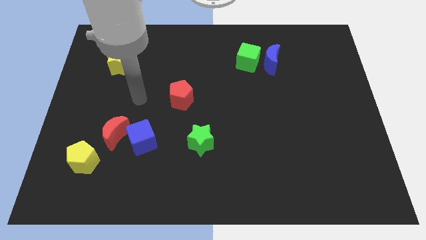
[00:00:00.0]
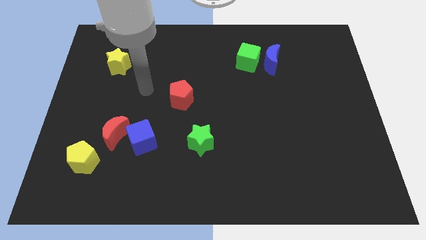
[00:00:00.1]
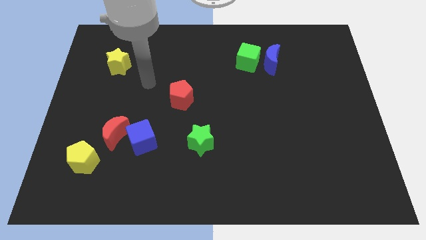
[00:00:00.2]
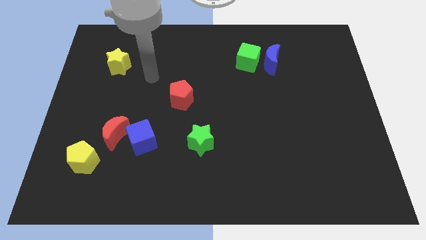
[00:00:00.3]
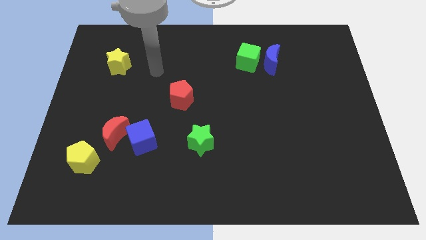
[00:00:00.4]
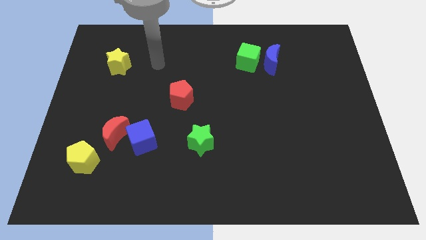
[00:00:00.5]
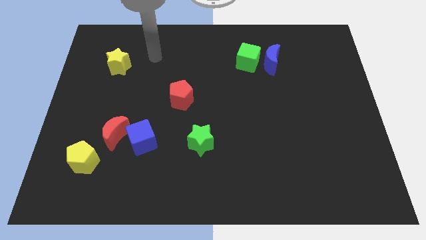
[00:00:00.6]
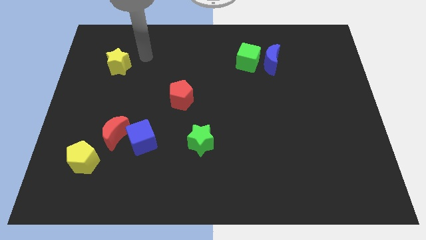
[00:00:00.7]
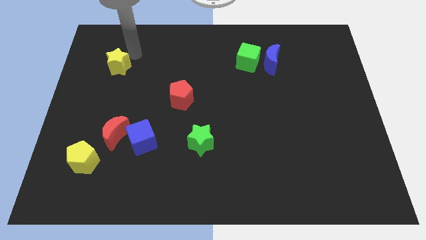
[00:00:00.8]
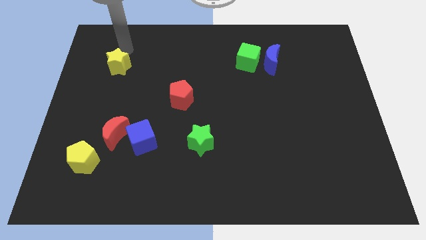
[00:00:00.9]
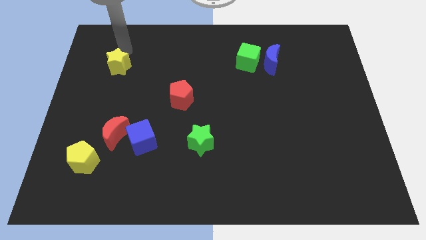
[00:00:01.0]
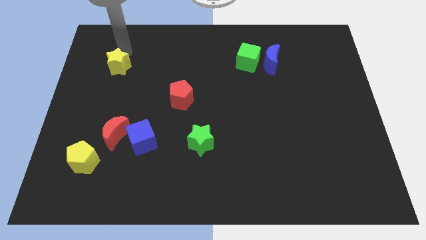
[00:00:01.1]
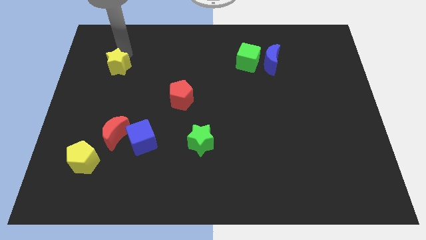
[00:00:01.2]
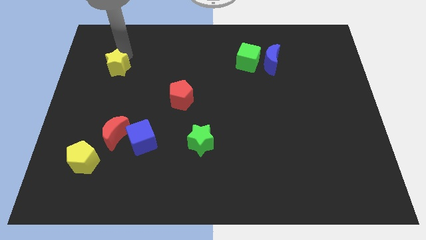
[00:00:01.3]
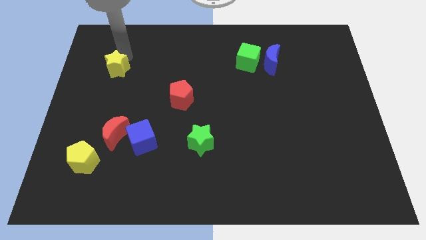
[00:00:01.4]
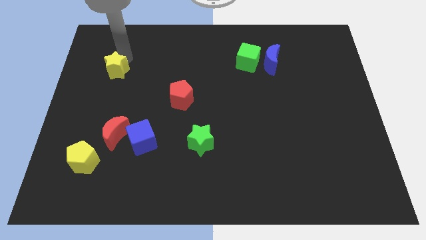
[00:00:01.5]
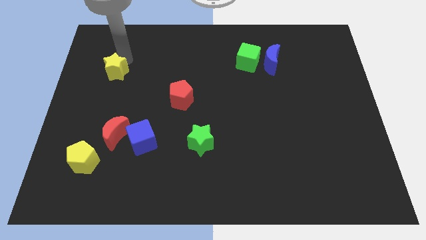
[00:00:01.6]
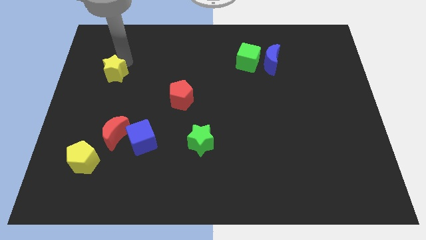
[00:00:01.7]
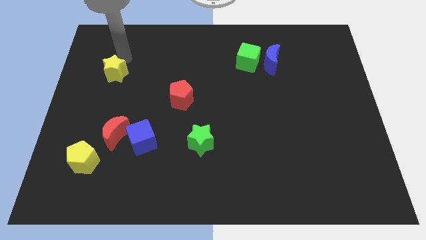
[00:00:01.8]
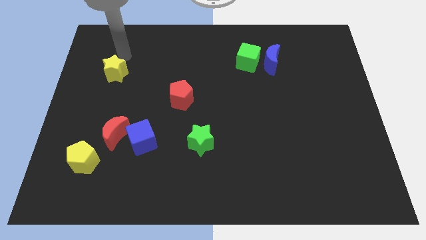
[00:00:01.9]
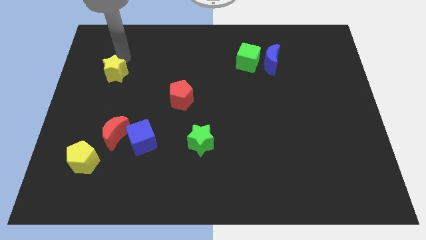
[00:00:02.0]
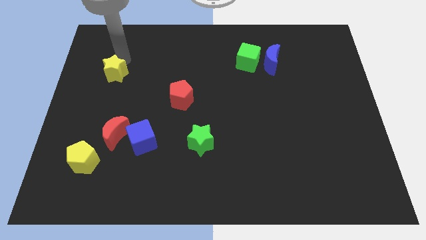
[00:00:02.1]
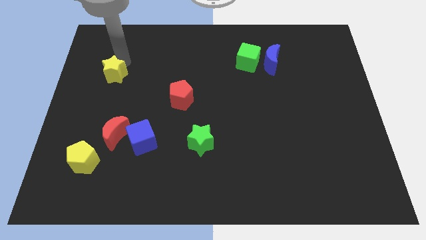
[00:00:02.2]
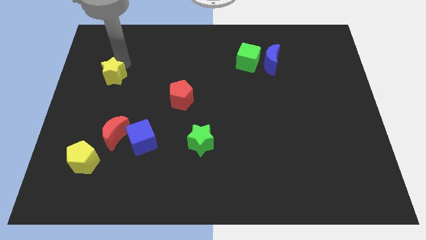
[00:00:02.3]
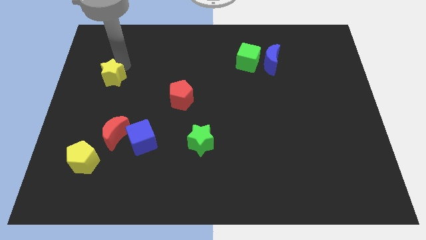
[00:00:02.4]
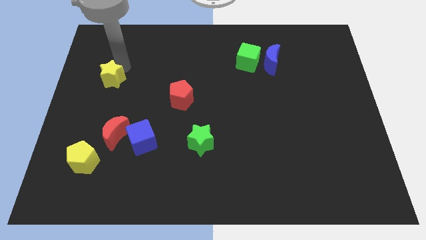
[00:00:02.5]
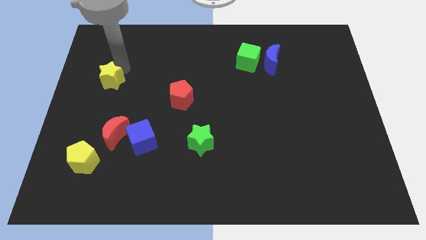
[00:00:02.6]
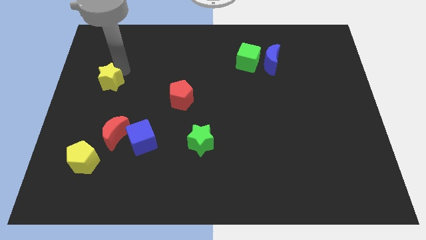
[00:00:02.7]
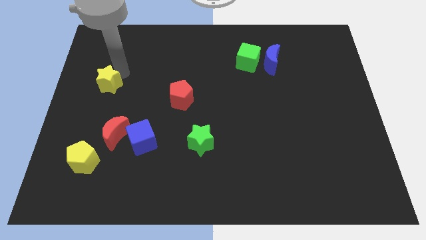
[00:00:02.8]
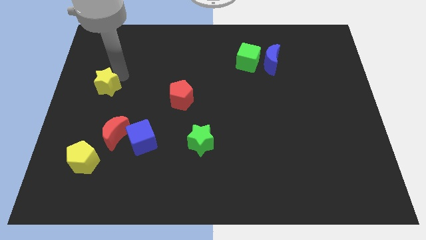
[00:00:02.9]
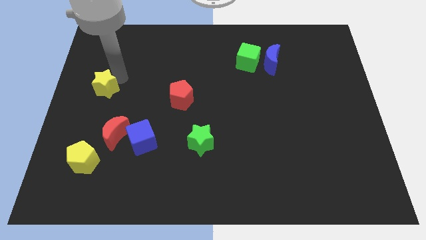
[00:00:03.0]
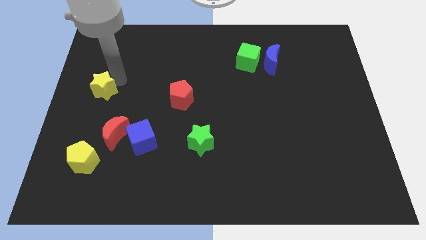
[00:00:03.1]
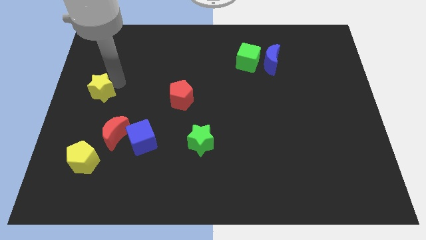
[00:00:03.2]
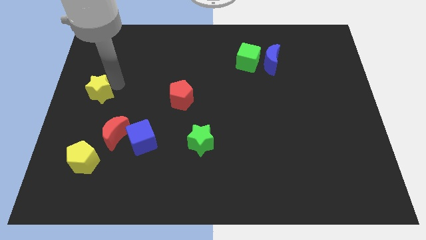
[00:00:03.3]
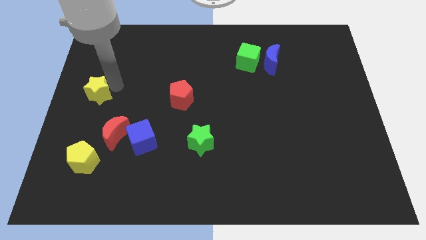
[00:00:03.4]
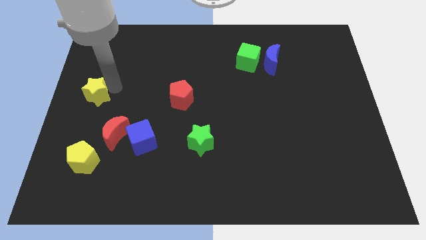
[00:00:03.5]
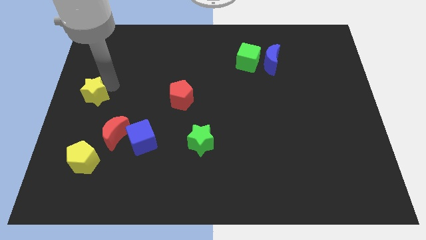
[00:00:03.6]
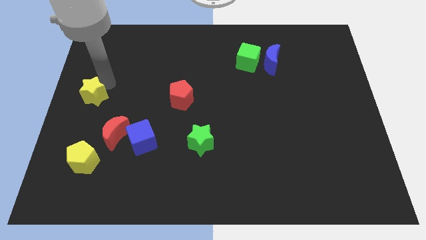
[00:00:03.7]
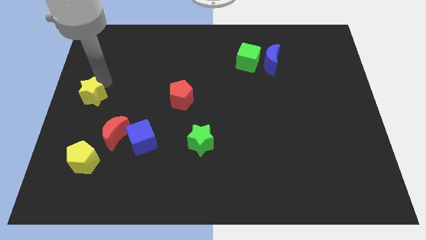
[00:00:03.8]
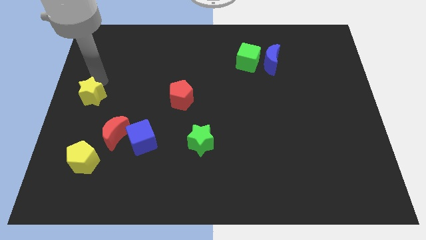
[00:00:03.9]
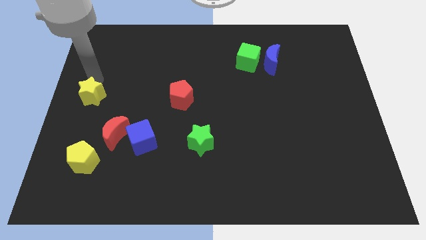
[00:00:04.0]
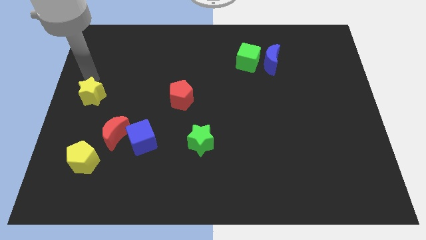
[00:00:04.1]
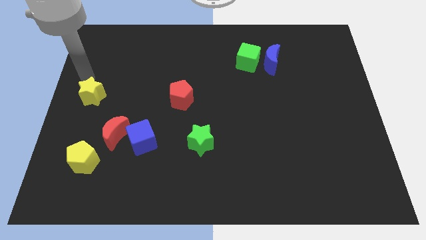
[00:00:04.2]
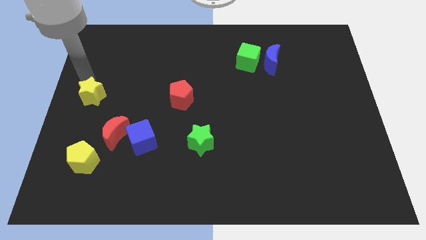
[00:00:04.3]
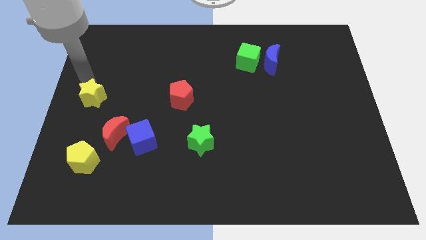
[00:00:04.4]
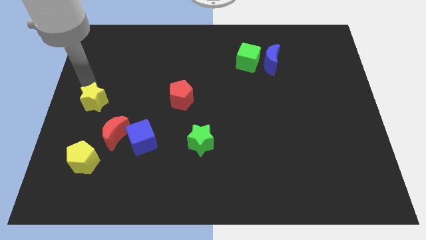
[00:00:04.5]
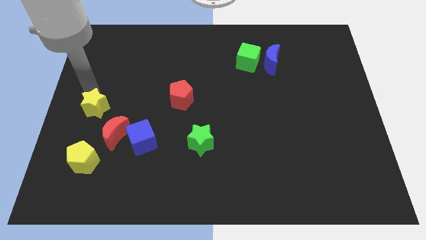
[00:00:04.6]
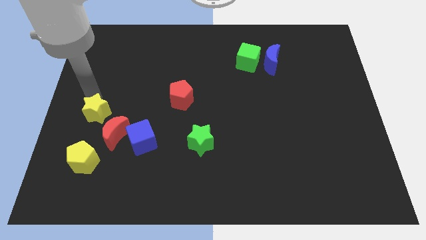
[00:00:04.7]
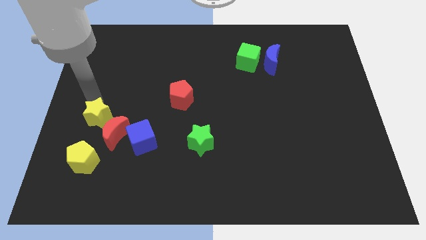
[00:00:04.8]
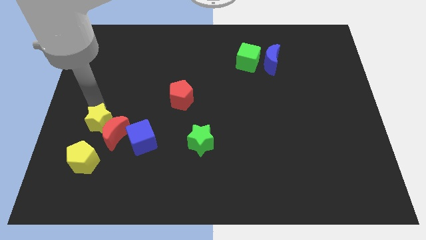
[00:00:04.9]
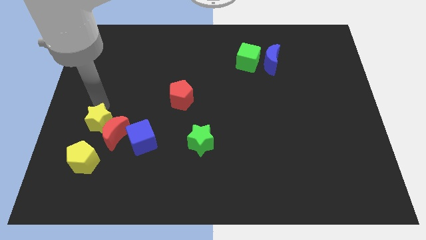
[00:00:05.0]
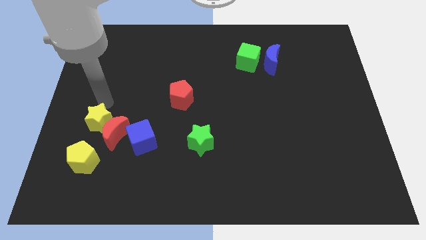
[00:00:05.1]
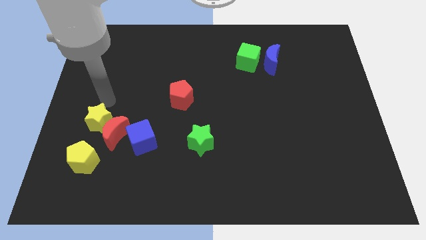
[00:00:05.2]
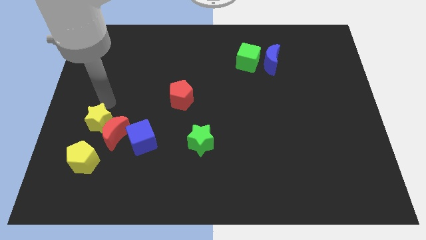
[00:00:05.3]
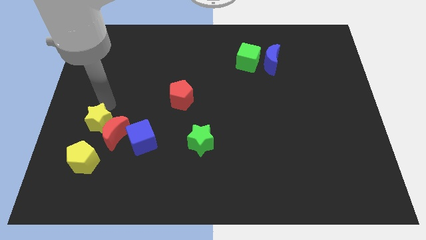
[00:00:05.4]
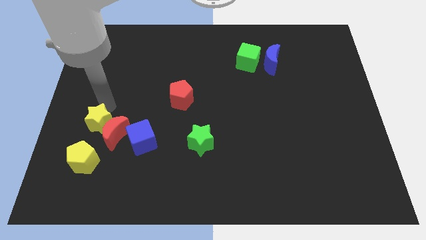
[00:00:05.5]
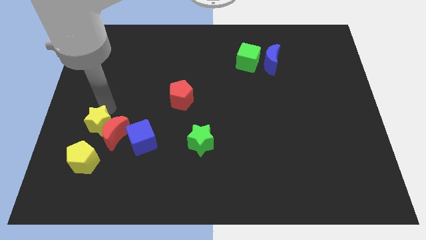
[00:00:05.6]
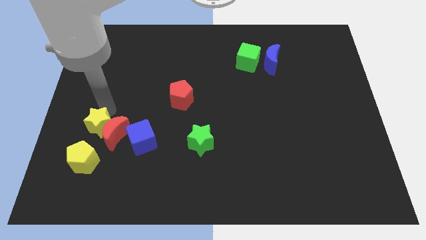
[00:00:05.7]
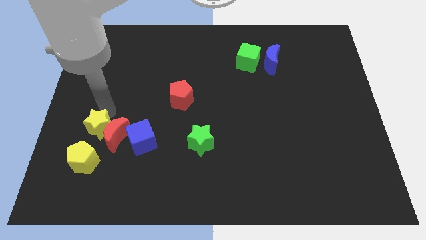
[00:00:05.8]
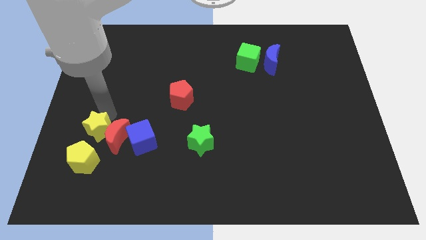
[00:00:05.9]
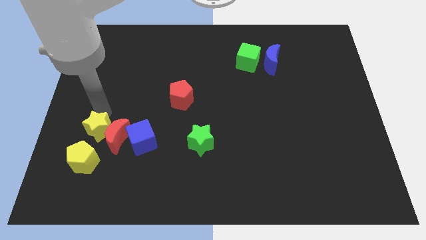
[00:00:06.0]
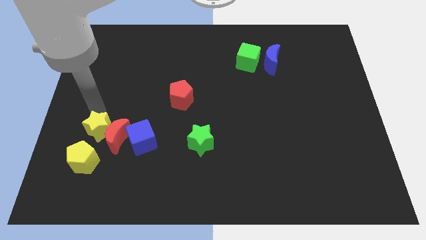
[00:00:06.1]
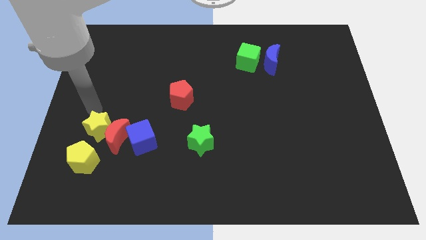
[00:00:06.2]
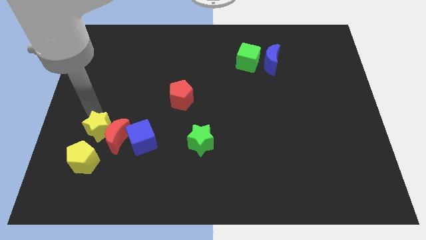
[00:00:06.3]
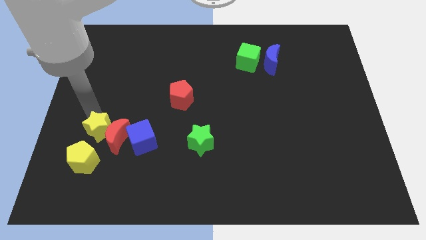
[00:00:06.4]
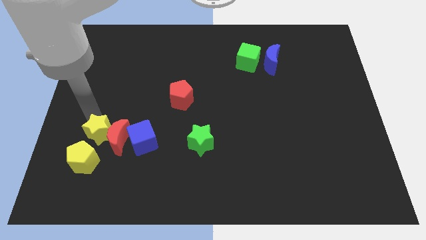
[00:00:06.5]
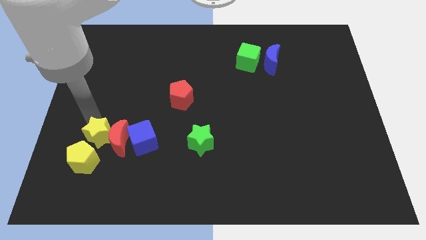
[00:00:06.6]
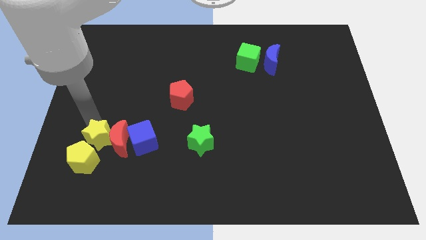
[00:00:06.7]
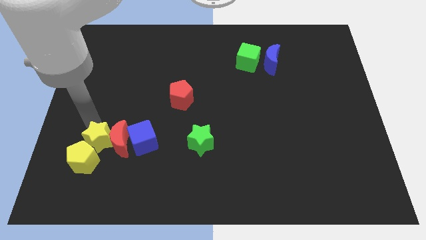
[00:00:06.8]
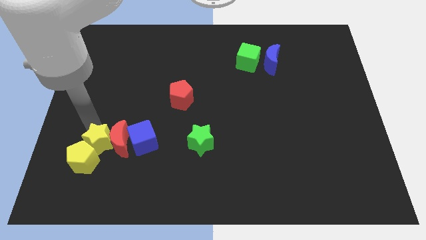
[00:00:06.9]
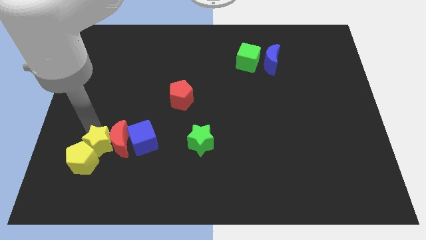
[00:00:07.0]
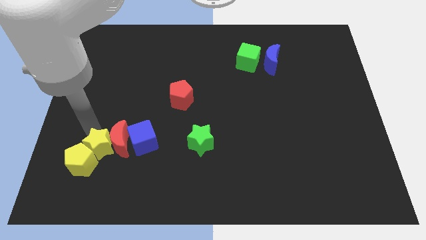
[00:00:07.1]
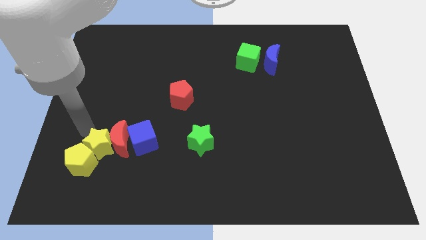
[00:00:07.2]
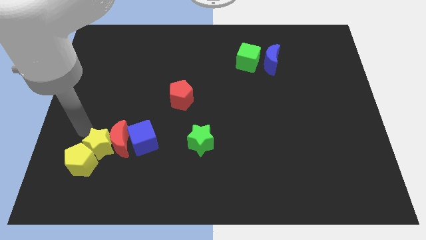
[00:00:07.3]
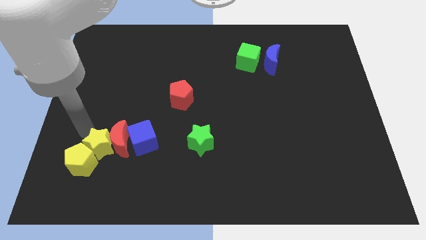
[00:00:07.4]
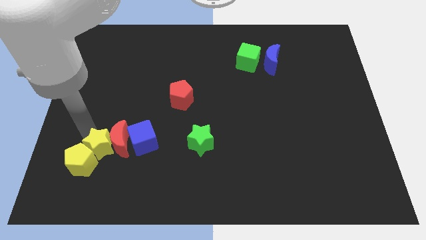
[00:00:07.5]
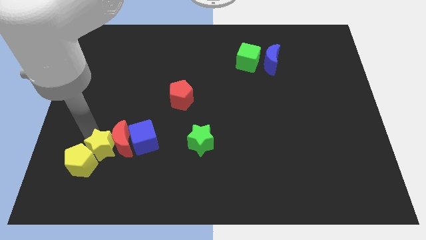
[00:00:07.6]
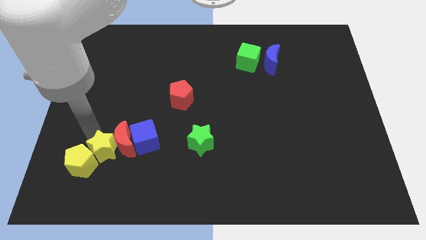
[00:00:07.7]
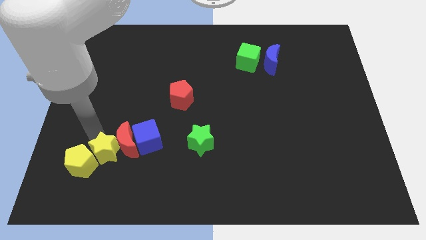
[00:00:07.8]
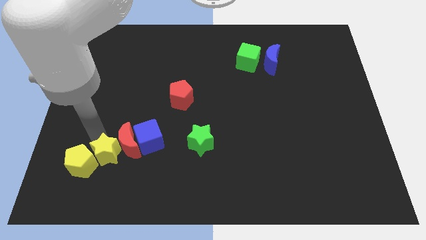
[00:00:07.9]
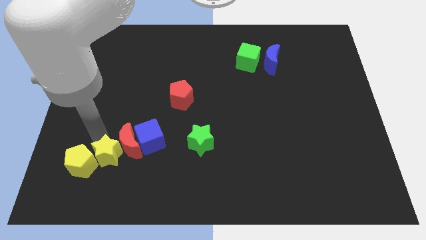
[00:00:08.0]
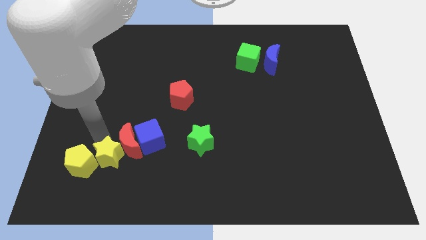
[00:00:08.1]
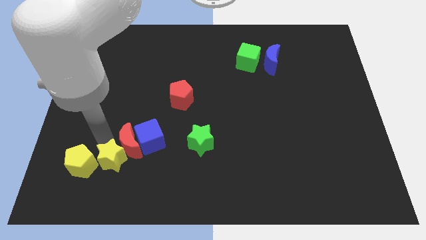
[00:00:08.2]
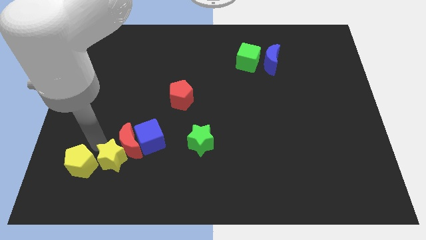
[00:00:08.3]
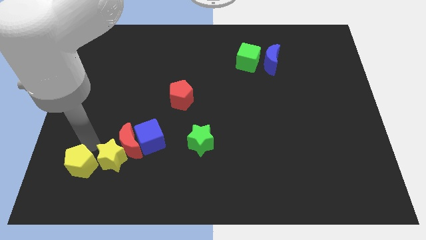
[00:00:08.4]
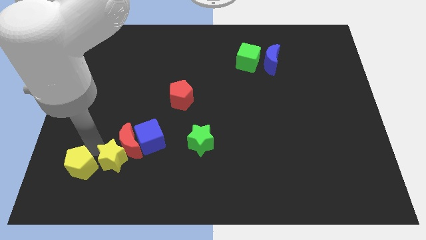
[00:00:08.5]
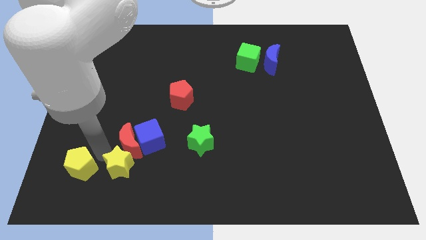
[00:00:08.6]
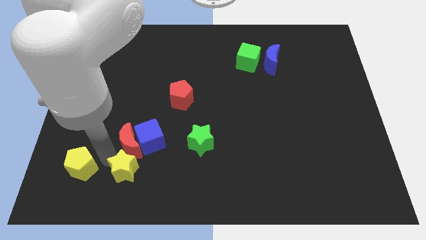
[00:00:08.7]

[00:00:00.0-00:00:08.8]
move the yellow star to the bottom of the blue cube
